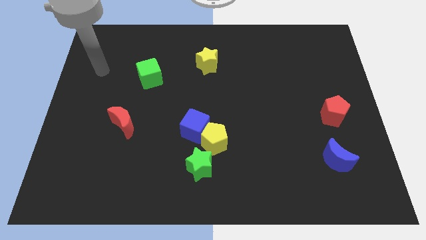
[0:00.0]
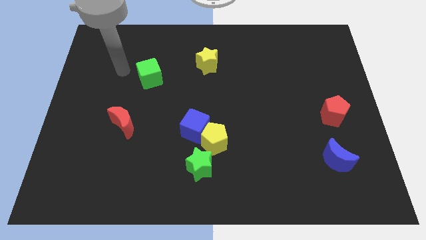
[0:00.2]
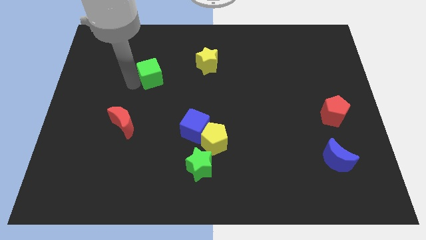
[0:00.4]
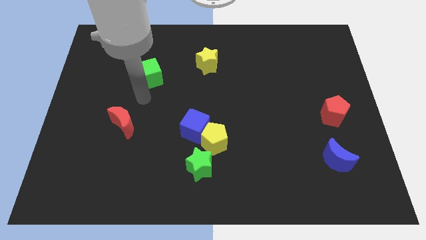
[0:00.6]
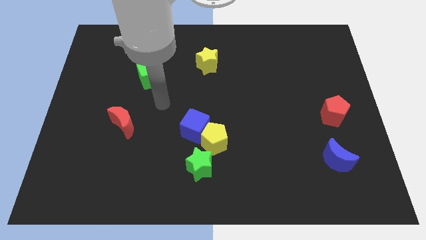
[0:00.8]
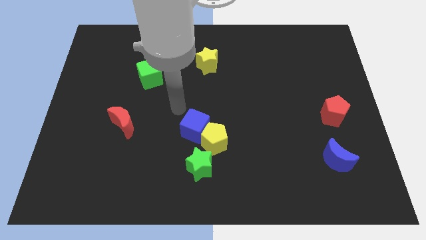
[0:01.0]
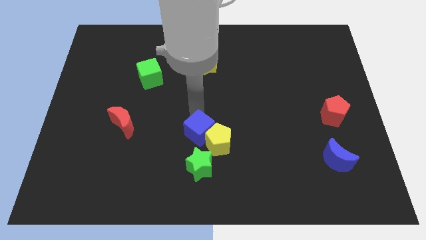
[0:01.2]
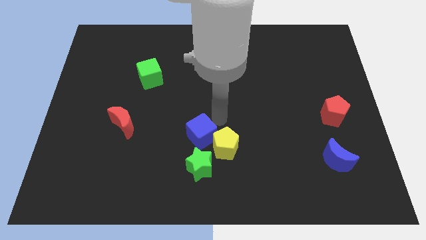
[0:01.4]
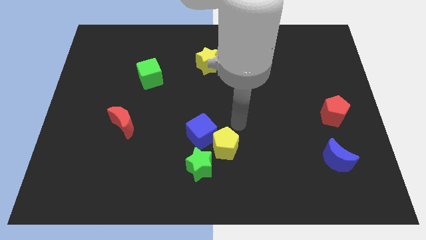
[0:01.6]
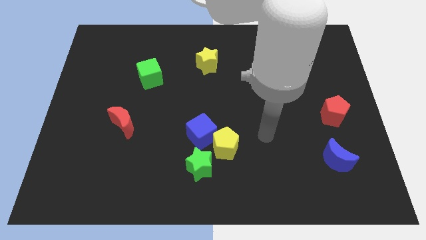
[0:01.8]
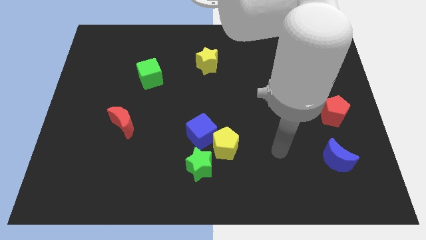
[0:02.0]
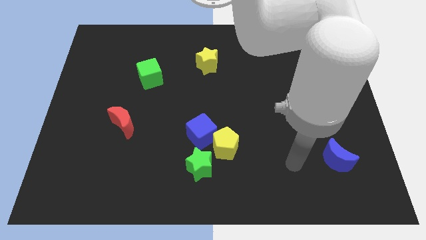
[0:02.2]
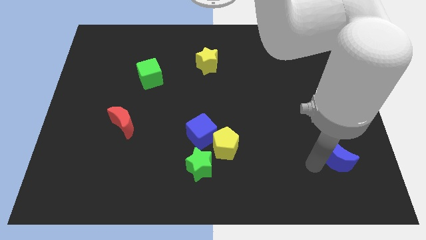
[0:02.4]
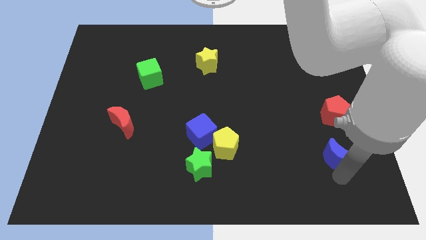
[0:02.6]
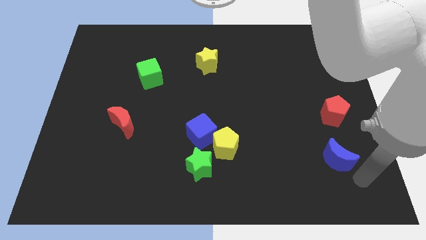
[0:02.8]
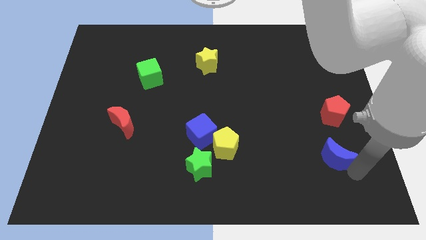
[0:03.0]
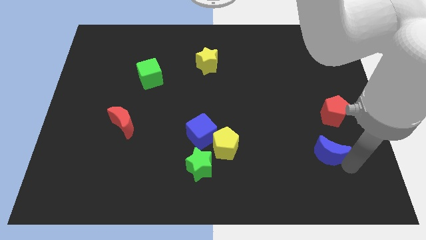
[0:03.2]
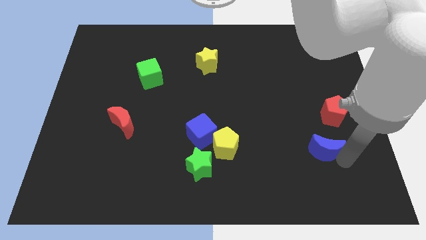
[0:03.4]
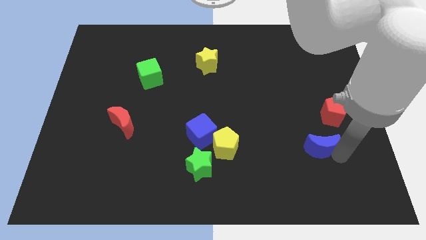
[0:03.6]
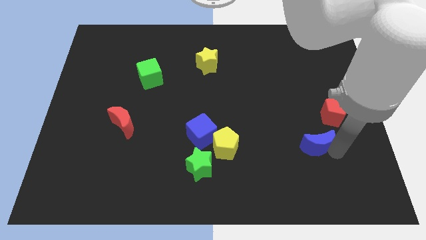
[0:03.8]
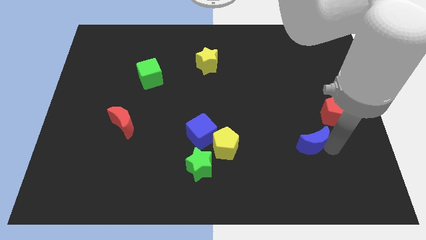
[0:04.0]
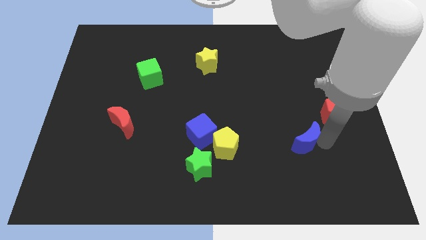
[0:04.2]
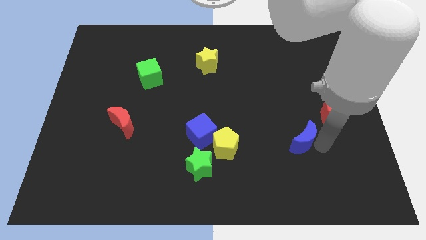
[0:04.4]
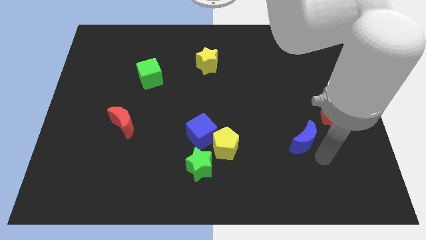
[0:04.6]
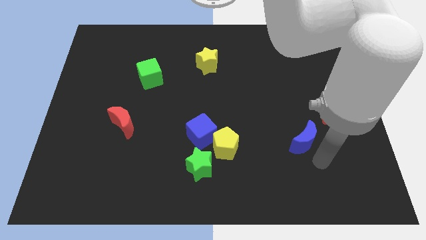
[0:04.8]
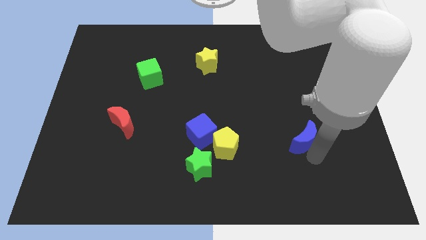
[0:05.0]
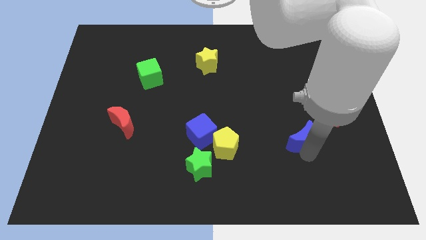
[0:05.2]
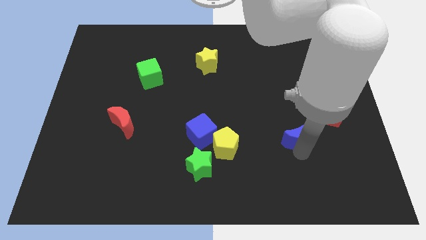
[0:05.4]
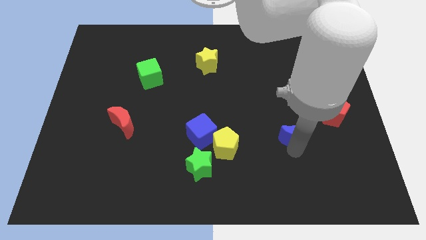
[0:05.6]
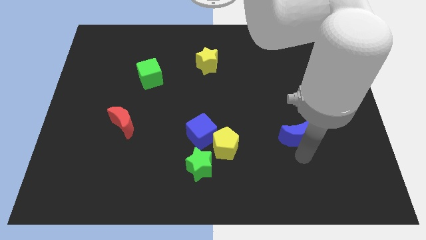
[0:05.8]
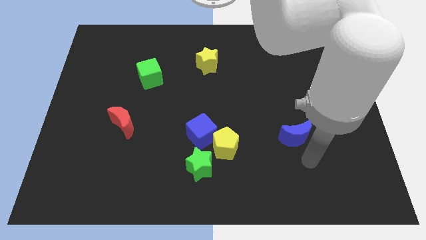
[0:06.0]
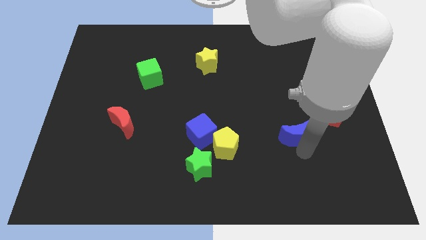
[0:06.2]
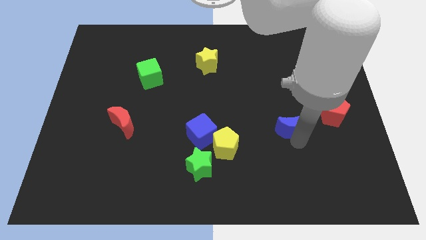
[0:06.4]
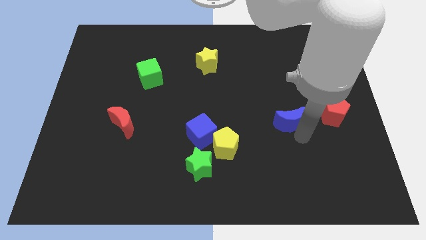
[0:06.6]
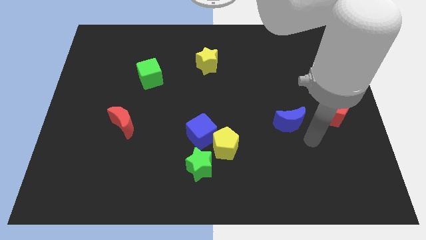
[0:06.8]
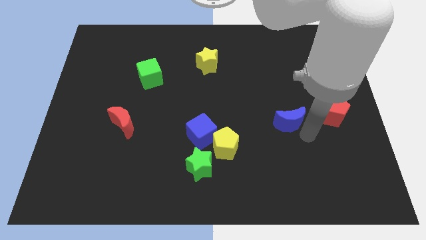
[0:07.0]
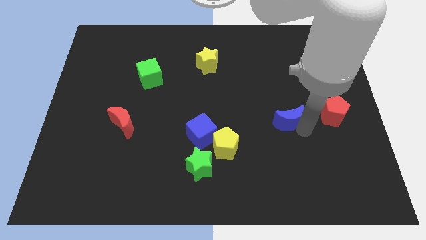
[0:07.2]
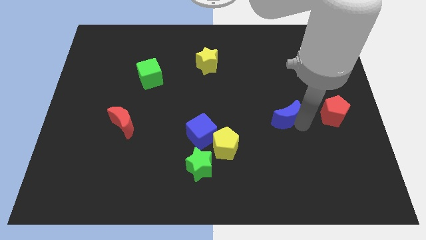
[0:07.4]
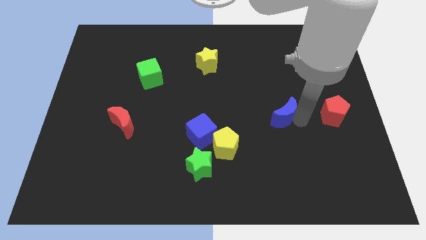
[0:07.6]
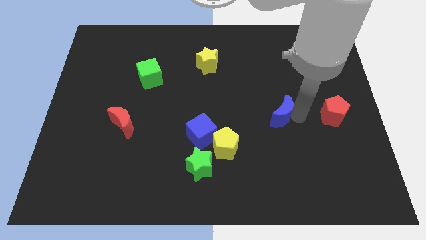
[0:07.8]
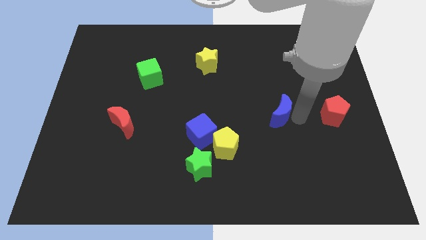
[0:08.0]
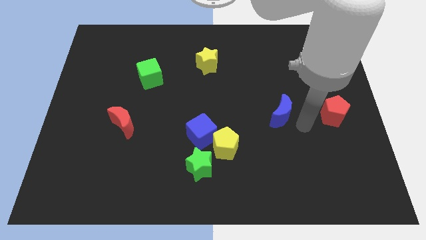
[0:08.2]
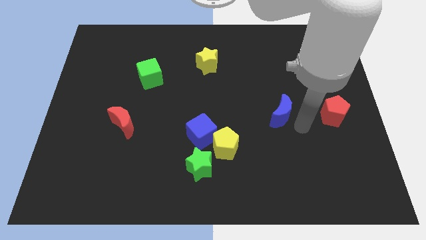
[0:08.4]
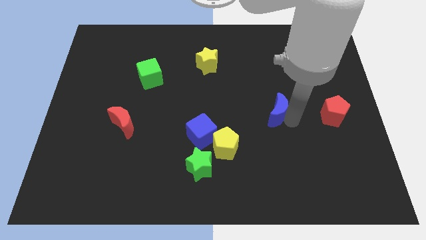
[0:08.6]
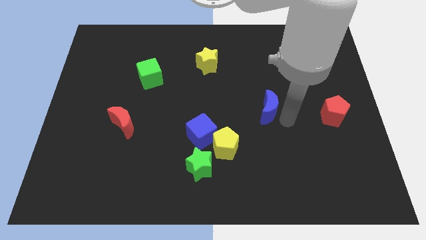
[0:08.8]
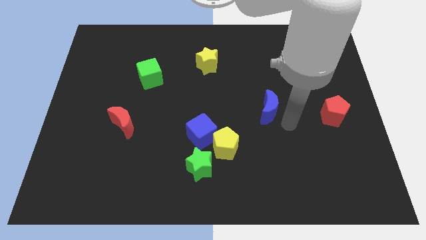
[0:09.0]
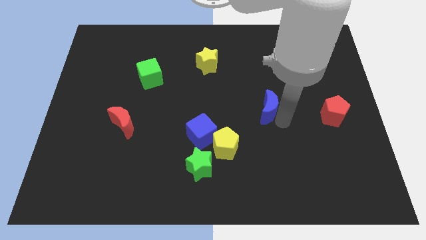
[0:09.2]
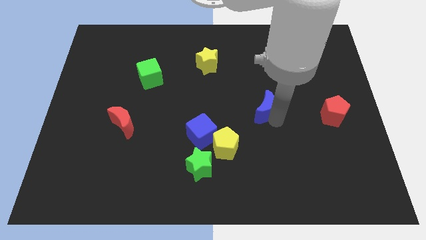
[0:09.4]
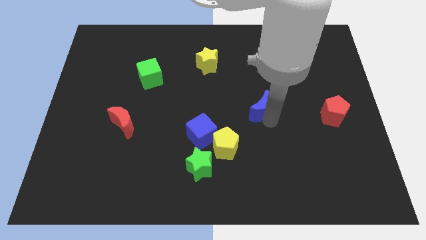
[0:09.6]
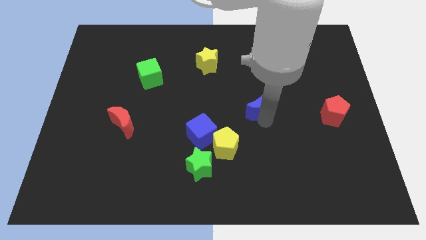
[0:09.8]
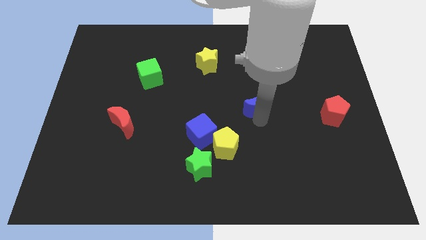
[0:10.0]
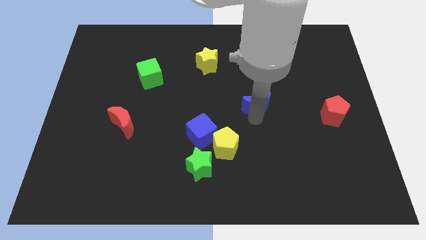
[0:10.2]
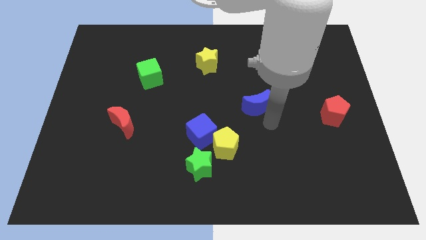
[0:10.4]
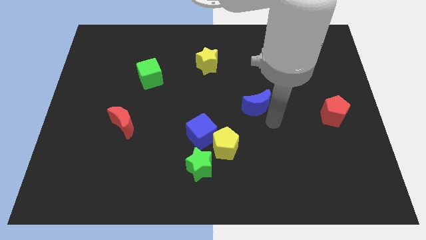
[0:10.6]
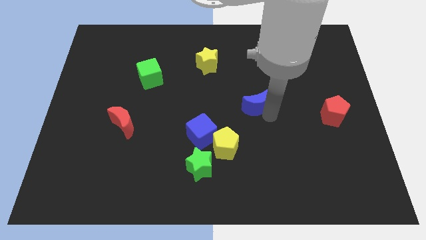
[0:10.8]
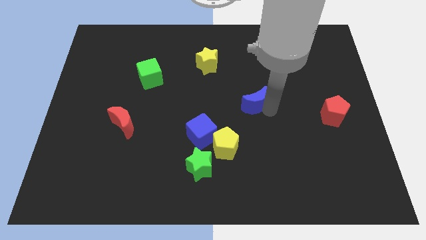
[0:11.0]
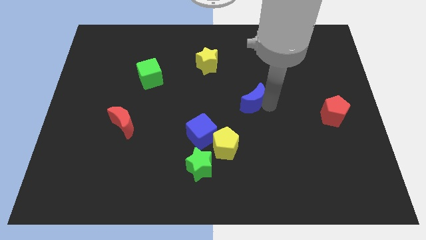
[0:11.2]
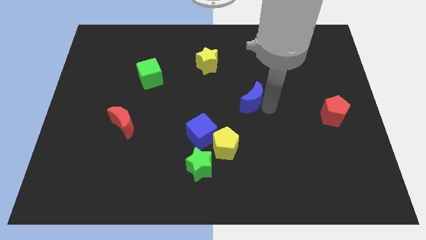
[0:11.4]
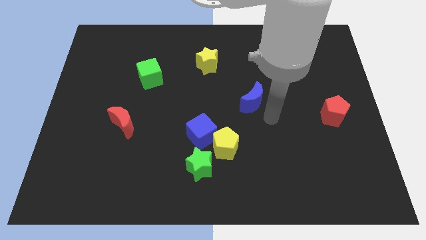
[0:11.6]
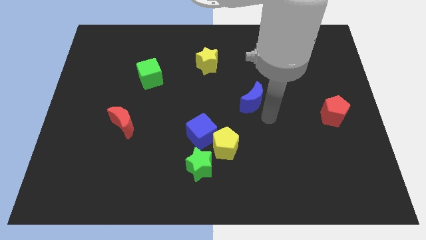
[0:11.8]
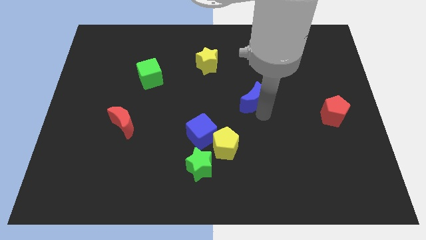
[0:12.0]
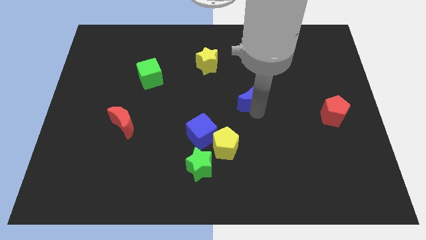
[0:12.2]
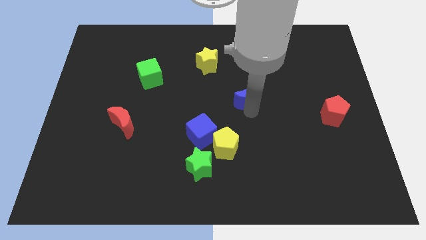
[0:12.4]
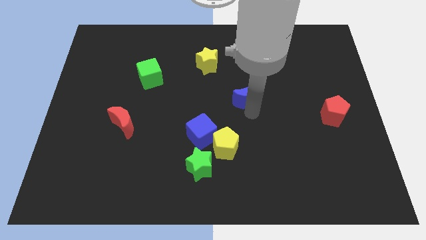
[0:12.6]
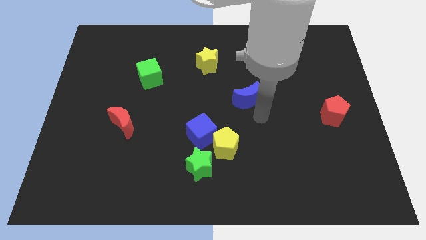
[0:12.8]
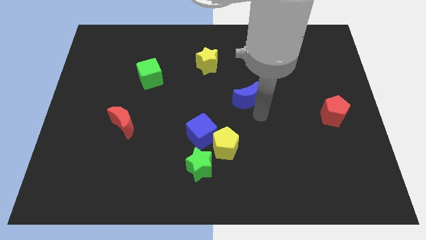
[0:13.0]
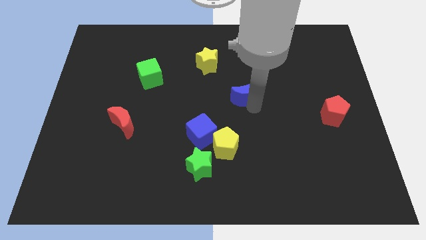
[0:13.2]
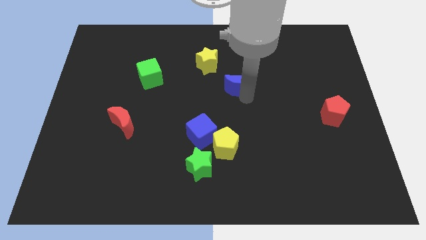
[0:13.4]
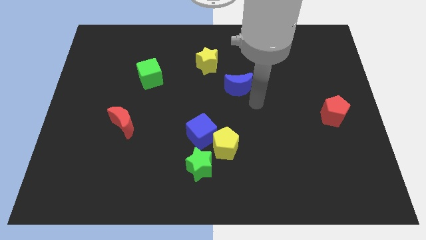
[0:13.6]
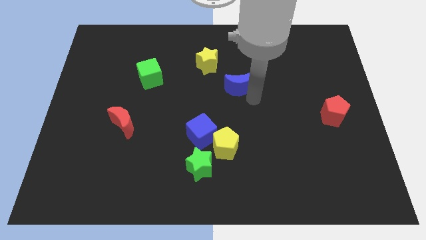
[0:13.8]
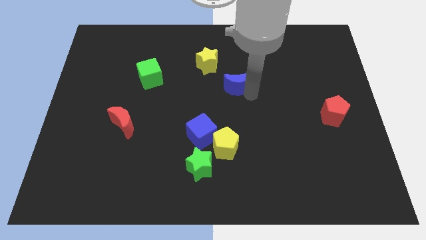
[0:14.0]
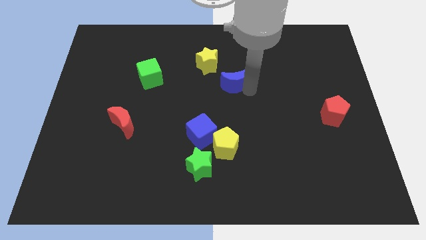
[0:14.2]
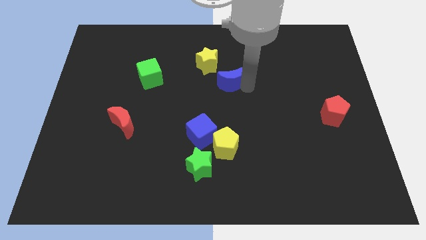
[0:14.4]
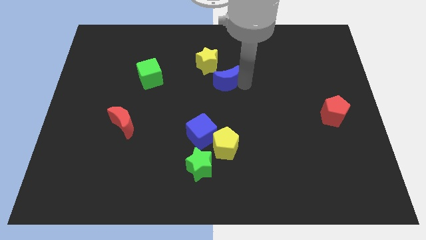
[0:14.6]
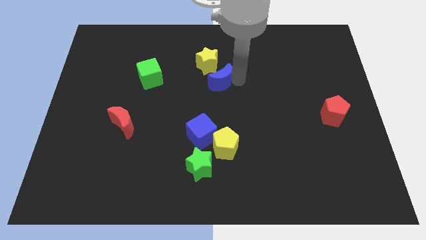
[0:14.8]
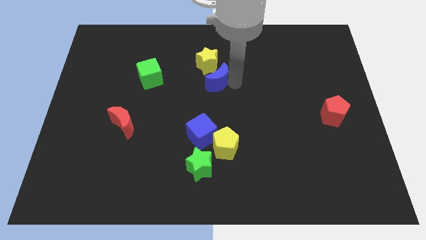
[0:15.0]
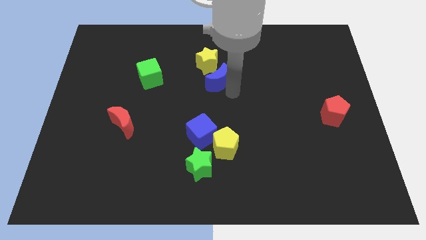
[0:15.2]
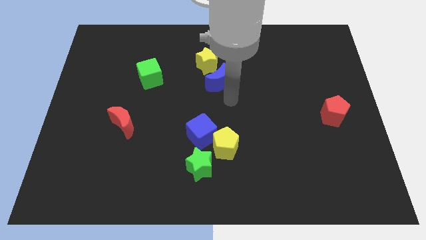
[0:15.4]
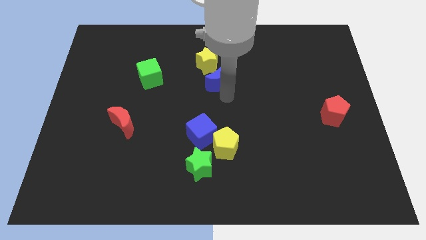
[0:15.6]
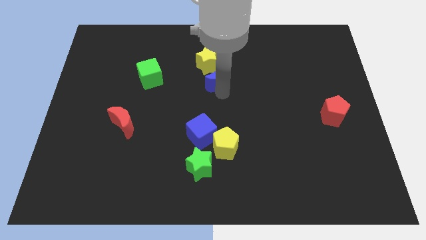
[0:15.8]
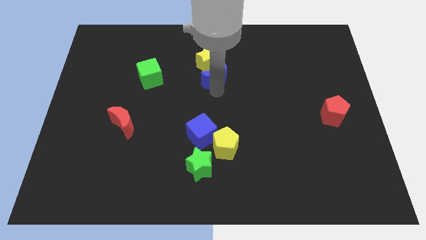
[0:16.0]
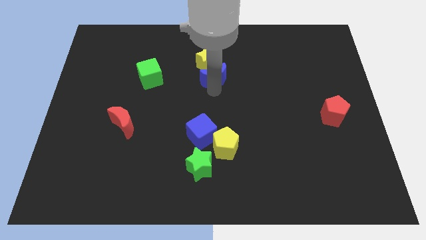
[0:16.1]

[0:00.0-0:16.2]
put the blue moon next to the yellow star

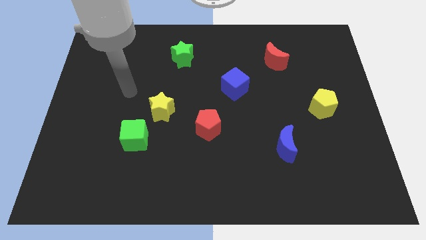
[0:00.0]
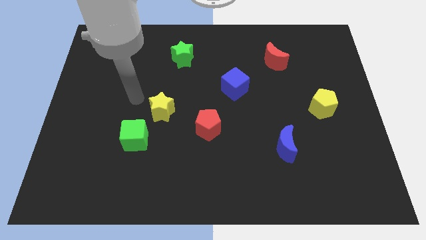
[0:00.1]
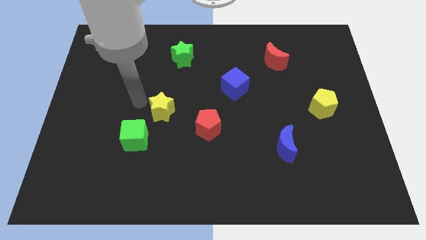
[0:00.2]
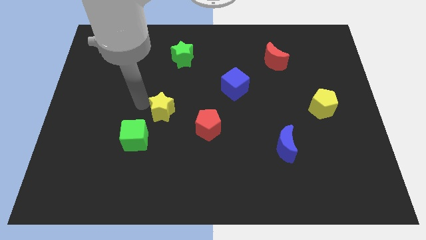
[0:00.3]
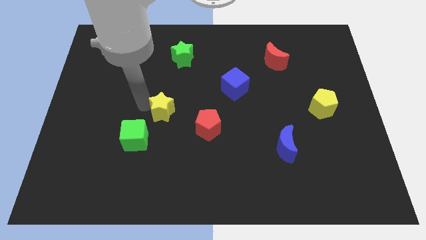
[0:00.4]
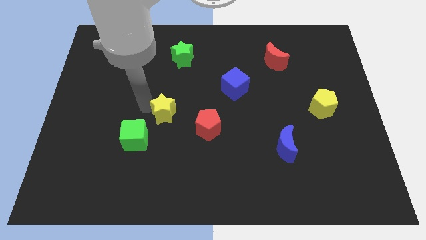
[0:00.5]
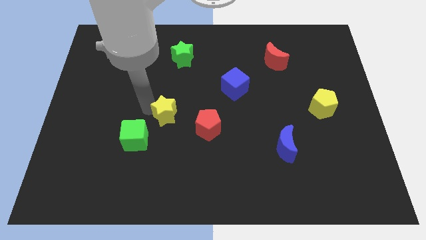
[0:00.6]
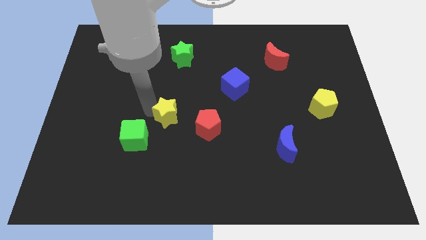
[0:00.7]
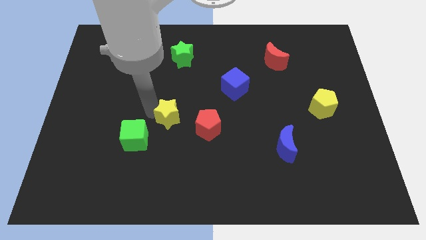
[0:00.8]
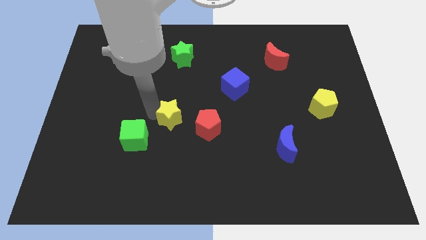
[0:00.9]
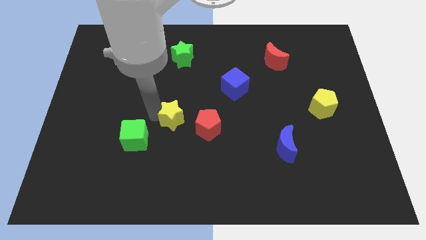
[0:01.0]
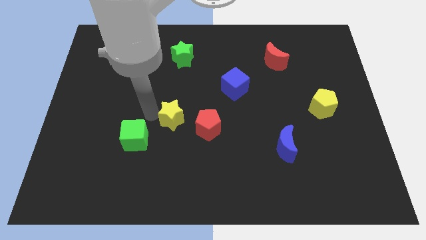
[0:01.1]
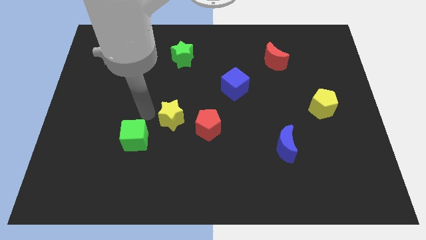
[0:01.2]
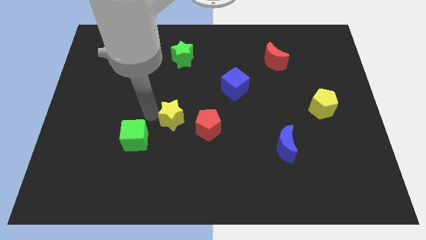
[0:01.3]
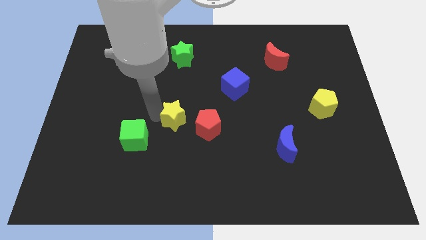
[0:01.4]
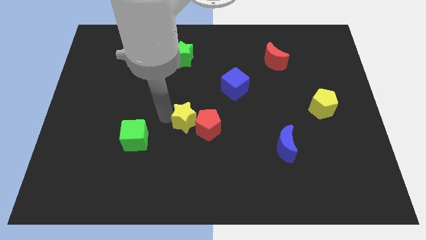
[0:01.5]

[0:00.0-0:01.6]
push the yellow star next to the red pentagon
